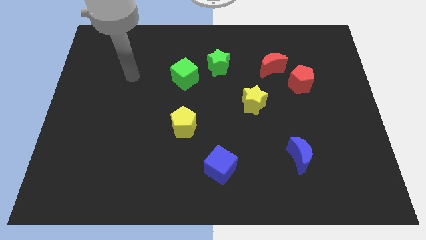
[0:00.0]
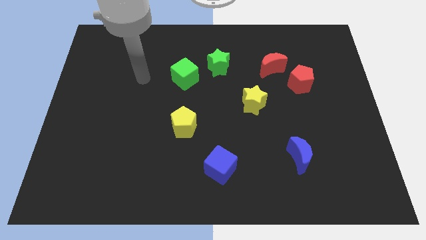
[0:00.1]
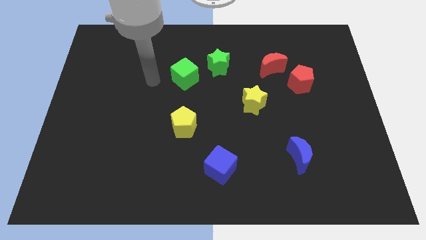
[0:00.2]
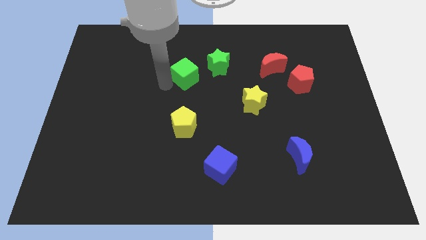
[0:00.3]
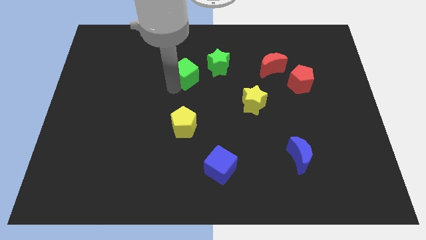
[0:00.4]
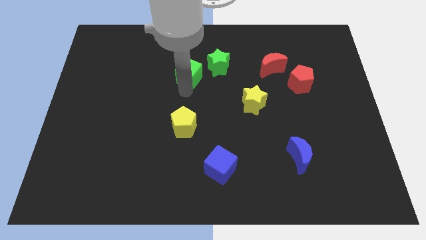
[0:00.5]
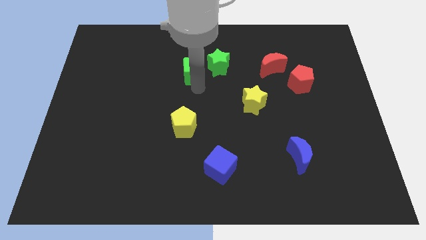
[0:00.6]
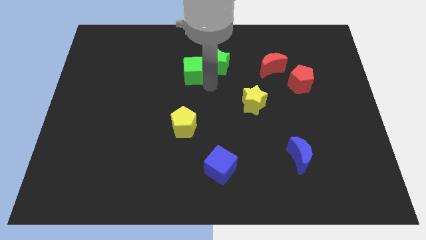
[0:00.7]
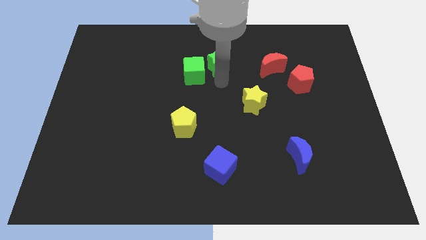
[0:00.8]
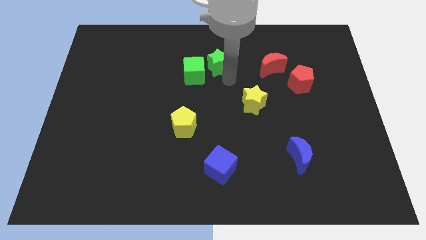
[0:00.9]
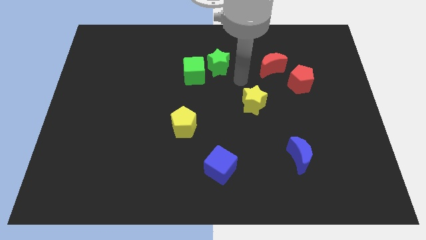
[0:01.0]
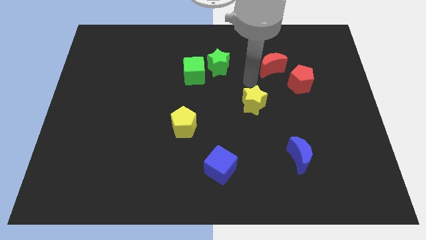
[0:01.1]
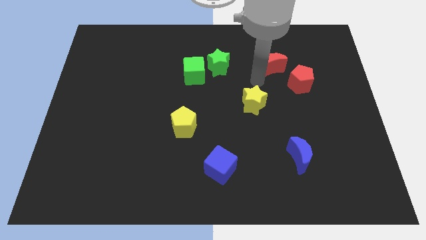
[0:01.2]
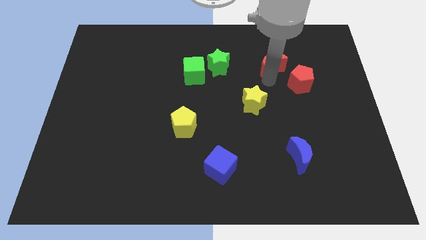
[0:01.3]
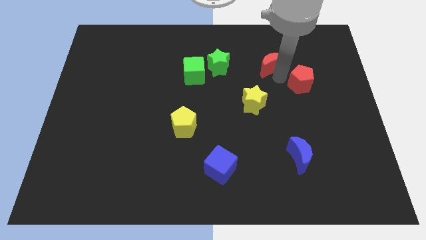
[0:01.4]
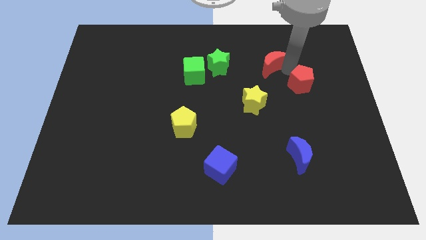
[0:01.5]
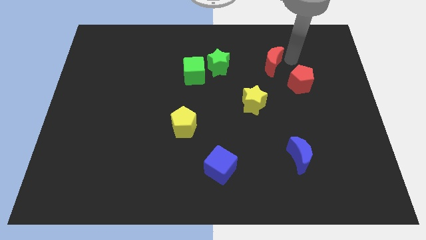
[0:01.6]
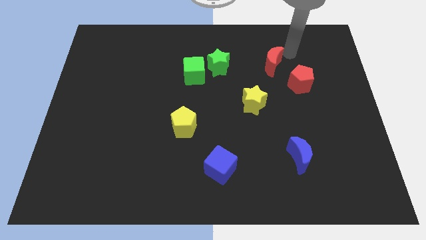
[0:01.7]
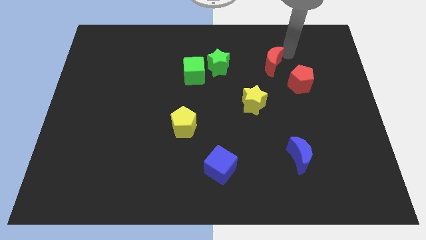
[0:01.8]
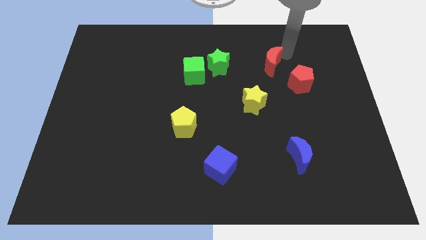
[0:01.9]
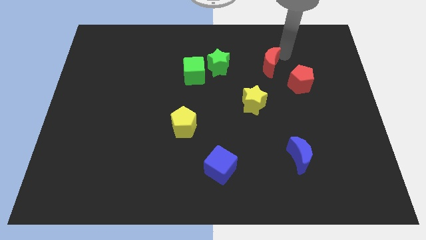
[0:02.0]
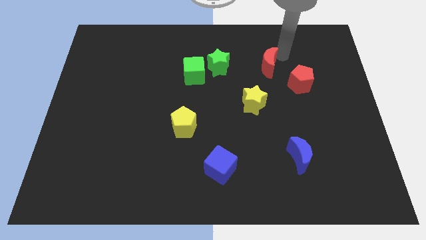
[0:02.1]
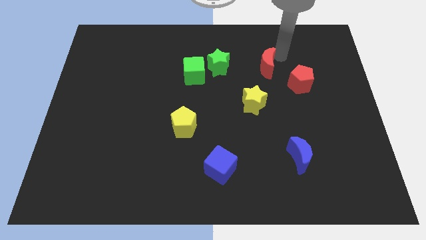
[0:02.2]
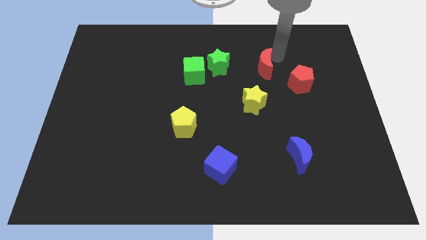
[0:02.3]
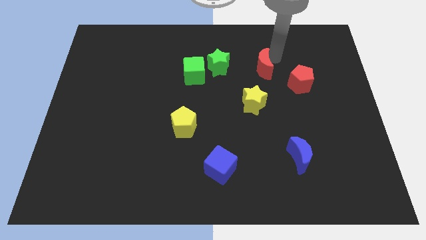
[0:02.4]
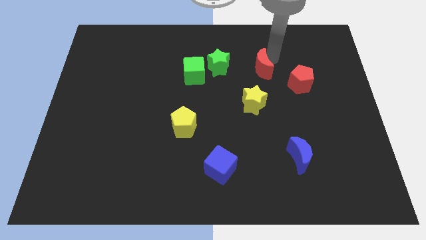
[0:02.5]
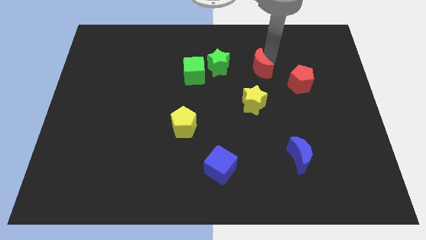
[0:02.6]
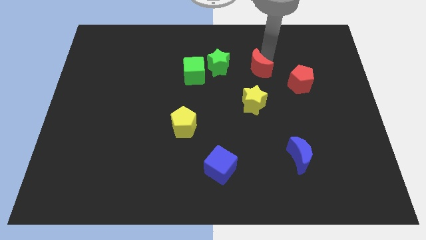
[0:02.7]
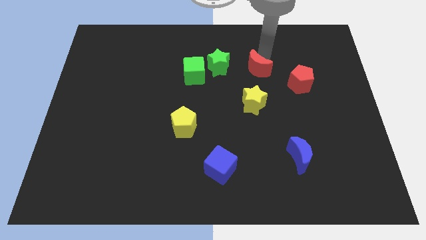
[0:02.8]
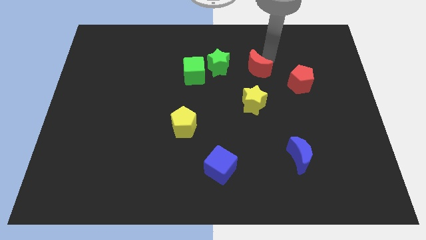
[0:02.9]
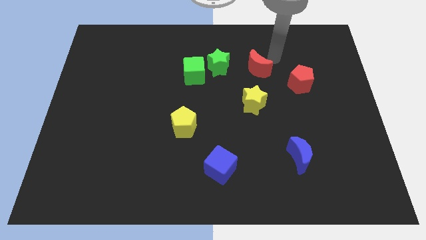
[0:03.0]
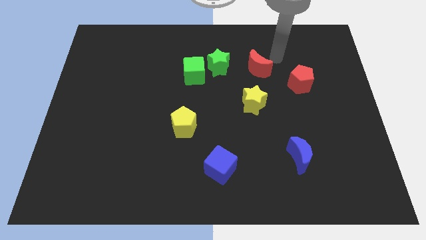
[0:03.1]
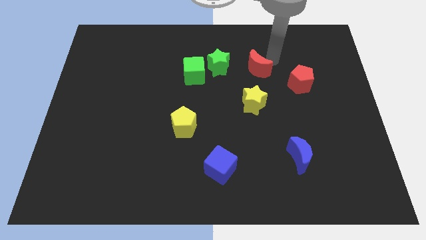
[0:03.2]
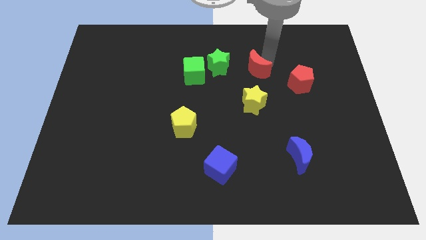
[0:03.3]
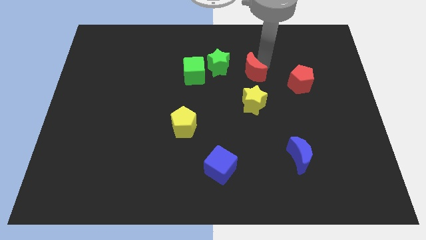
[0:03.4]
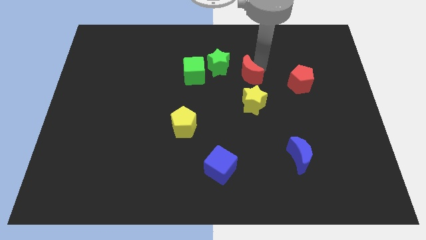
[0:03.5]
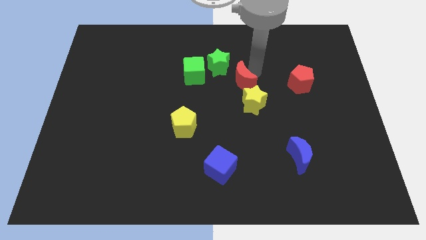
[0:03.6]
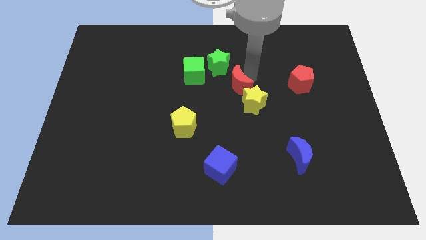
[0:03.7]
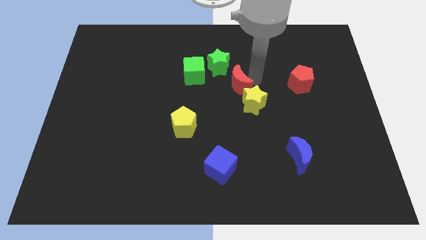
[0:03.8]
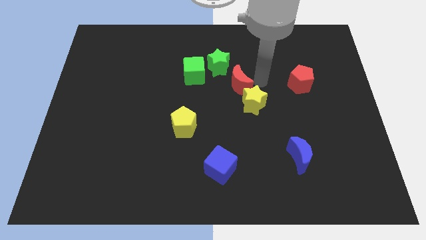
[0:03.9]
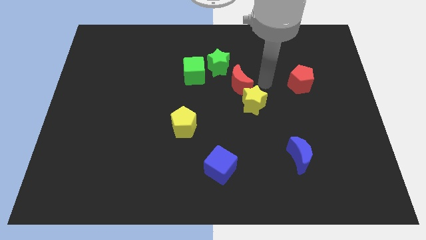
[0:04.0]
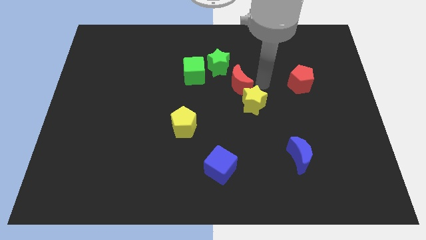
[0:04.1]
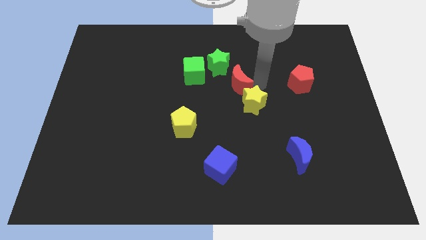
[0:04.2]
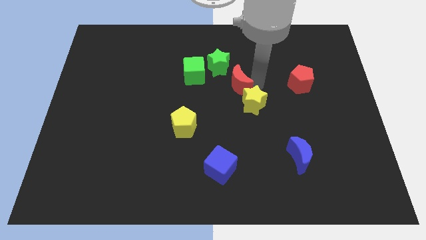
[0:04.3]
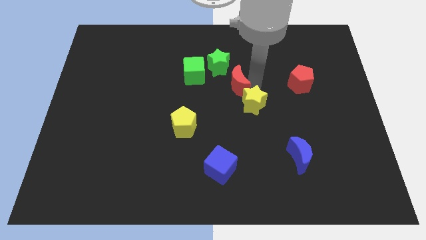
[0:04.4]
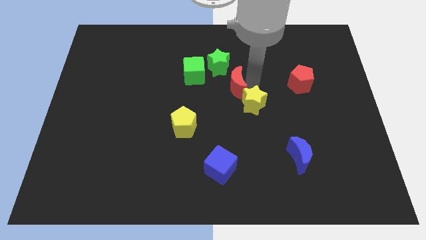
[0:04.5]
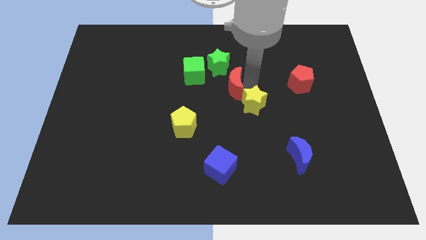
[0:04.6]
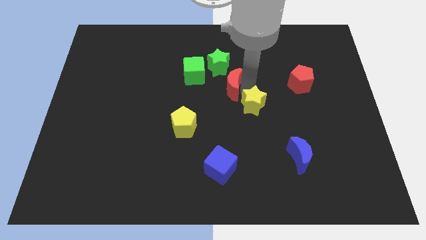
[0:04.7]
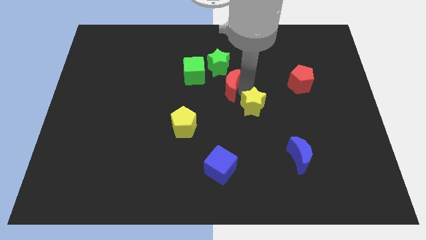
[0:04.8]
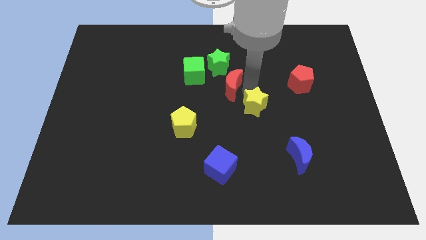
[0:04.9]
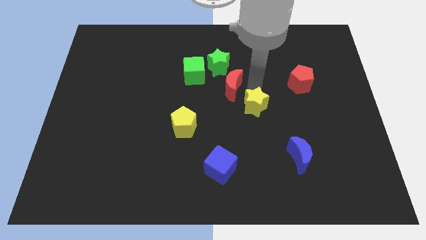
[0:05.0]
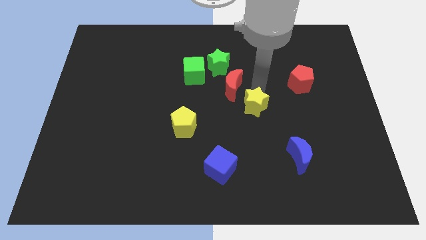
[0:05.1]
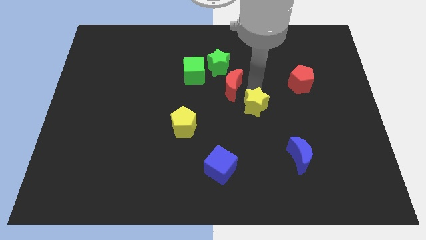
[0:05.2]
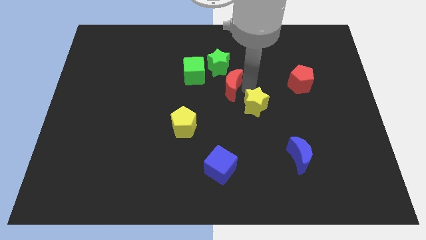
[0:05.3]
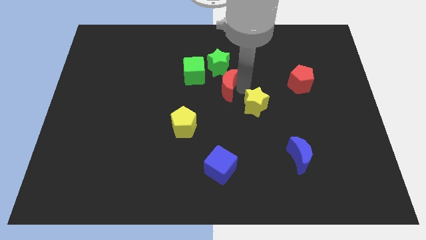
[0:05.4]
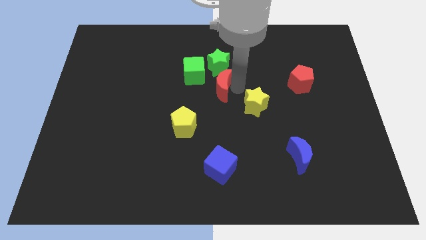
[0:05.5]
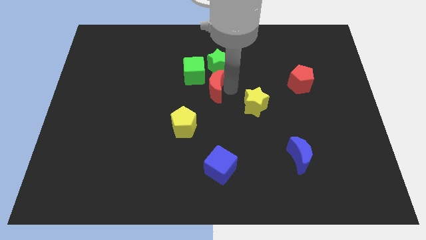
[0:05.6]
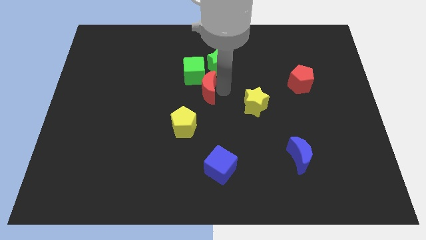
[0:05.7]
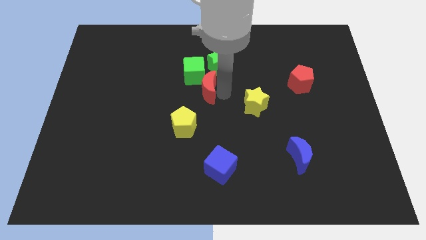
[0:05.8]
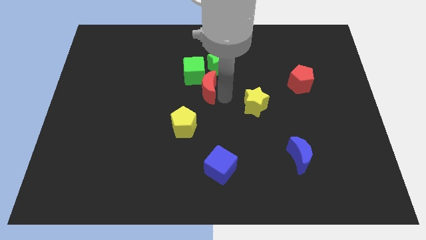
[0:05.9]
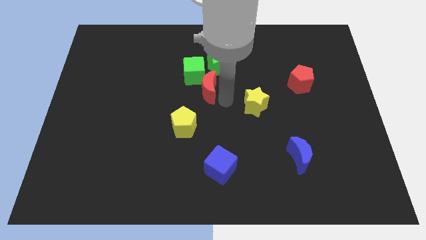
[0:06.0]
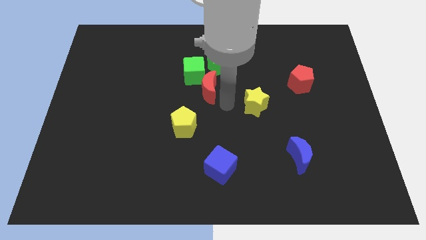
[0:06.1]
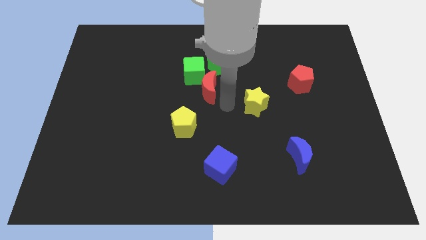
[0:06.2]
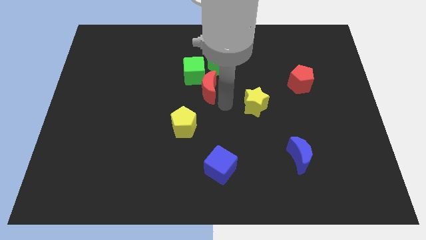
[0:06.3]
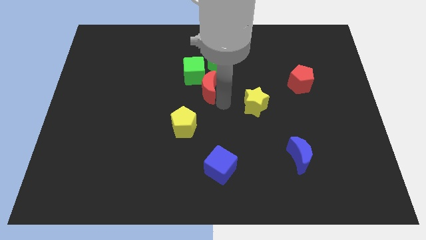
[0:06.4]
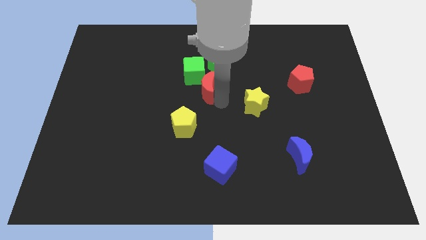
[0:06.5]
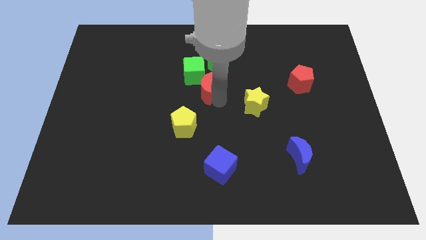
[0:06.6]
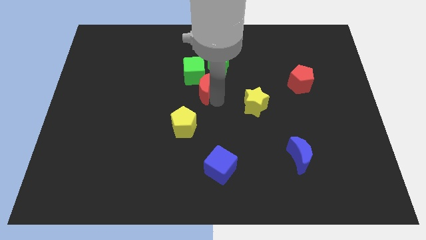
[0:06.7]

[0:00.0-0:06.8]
put the red moon to the green cube
